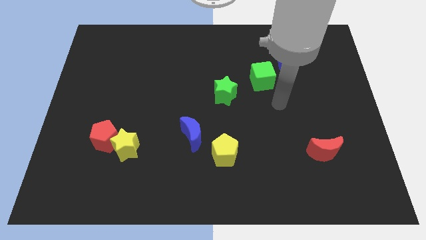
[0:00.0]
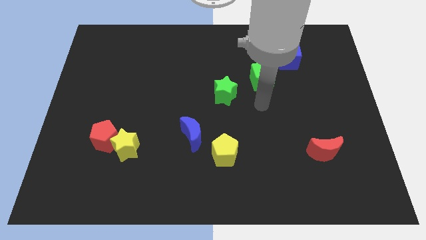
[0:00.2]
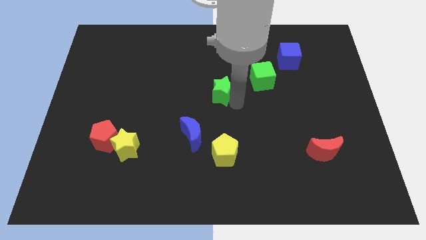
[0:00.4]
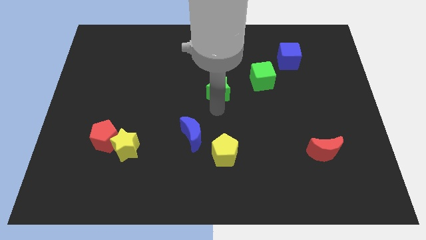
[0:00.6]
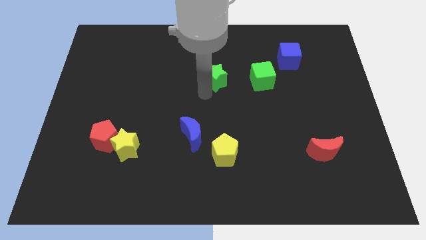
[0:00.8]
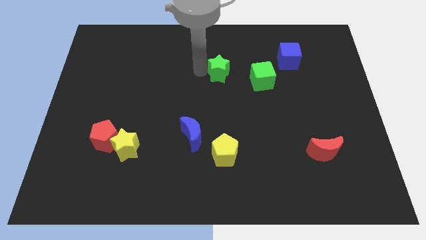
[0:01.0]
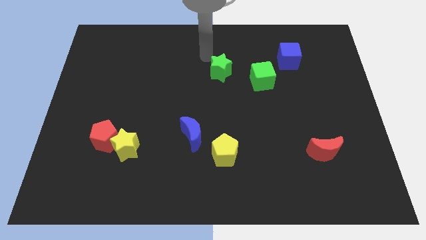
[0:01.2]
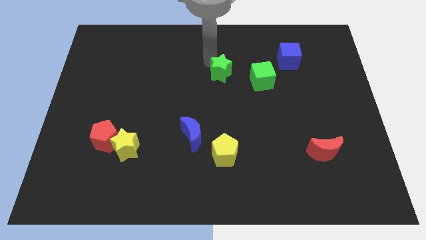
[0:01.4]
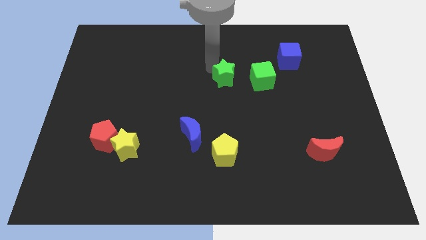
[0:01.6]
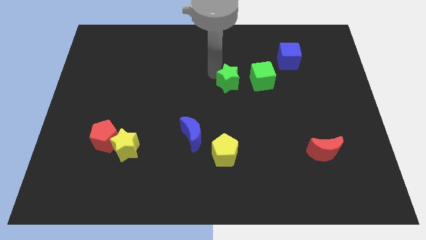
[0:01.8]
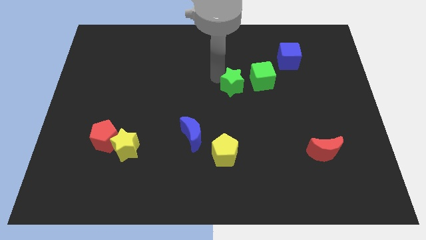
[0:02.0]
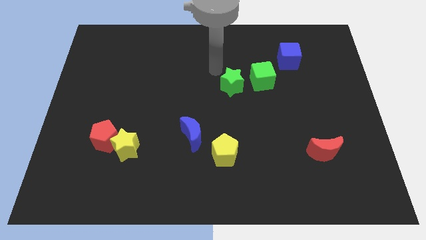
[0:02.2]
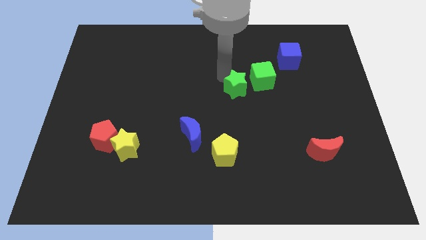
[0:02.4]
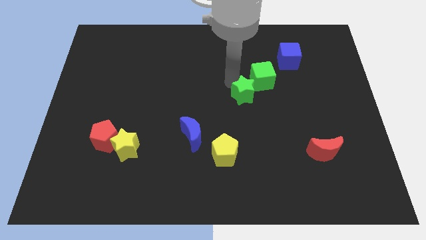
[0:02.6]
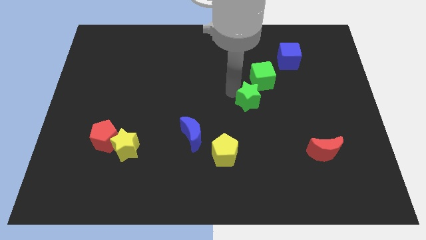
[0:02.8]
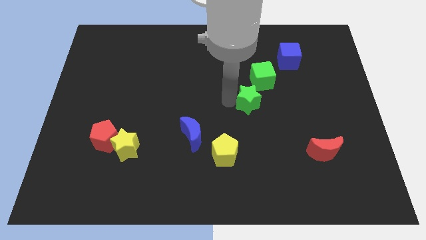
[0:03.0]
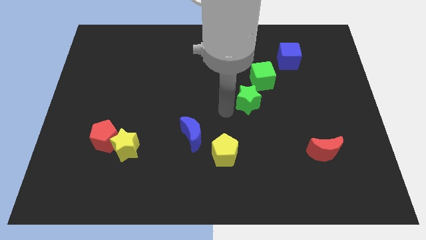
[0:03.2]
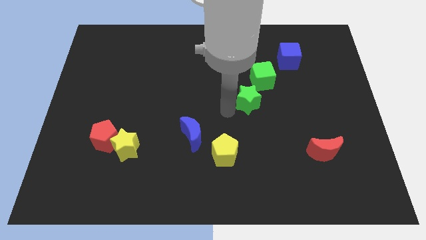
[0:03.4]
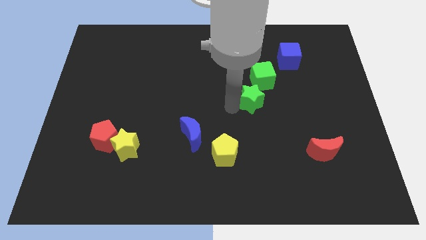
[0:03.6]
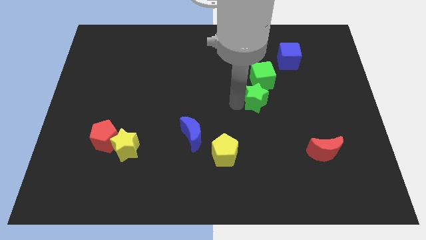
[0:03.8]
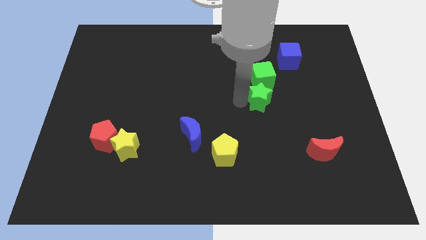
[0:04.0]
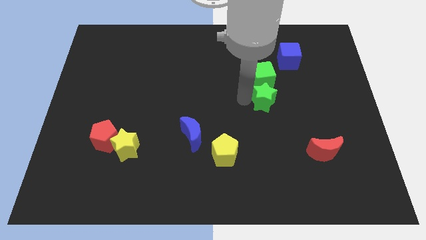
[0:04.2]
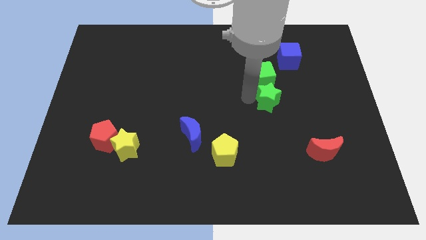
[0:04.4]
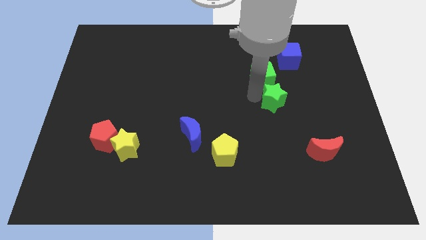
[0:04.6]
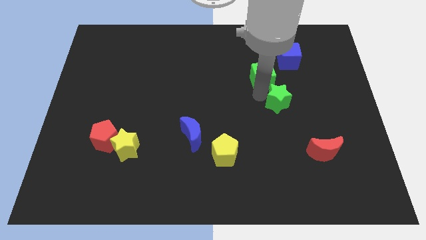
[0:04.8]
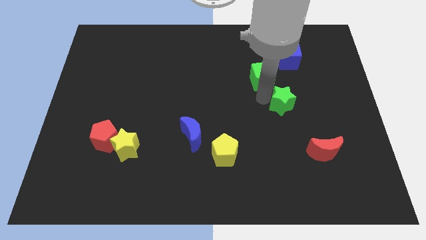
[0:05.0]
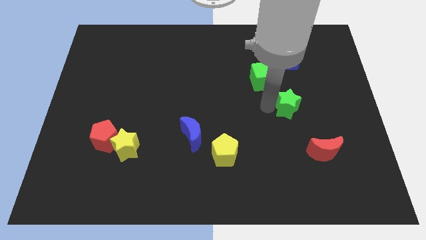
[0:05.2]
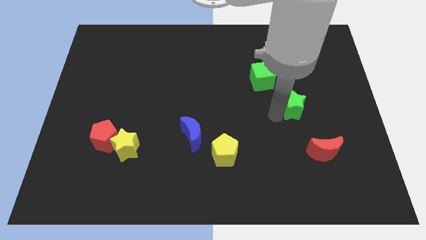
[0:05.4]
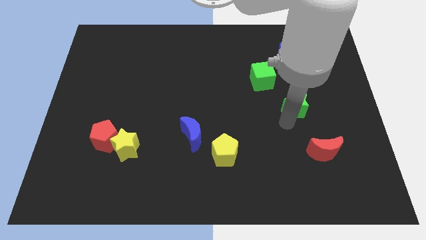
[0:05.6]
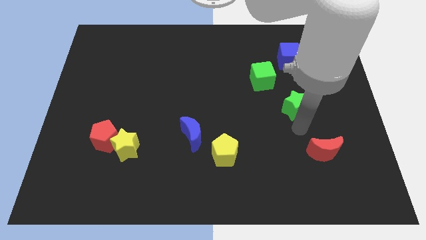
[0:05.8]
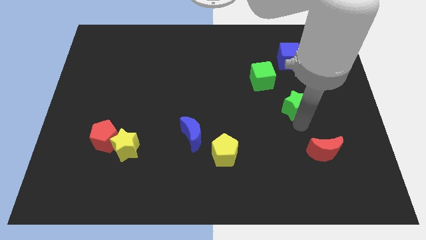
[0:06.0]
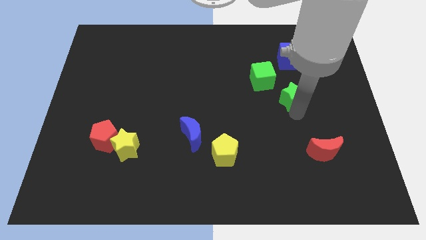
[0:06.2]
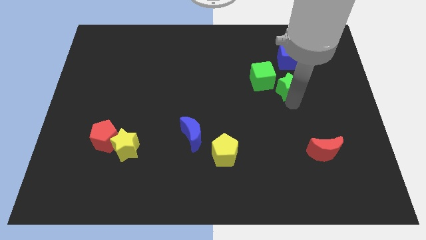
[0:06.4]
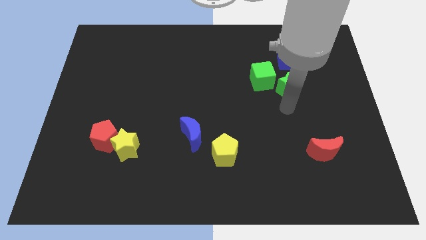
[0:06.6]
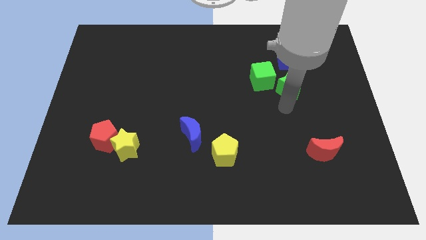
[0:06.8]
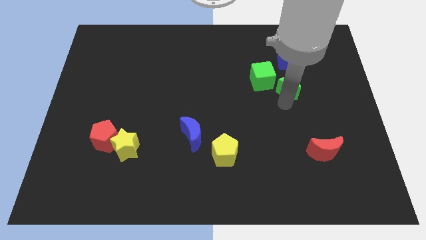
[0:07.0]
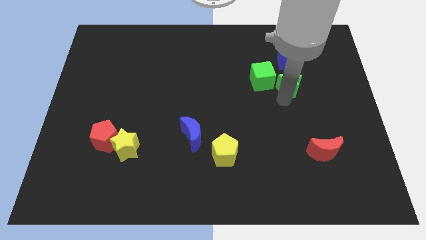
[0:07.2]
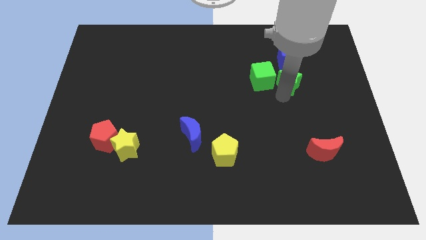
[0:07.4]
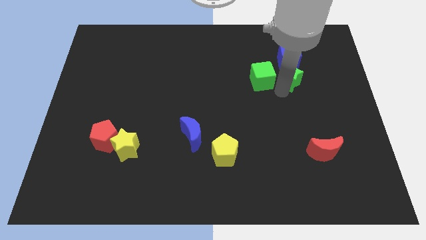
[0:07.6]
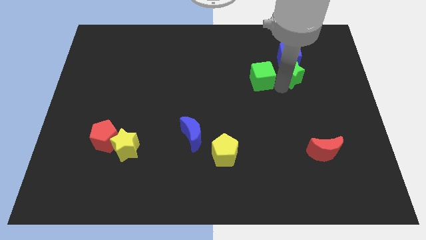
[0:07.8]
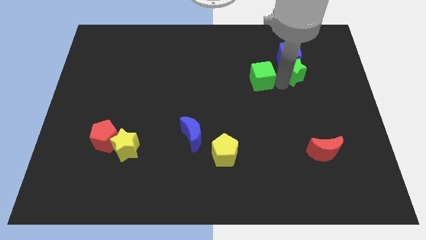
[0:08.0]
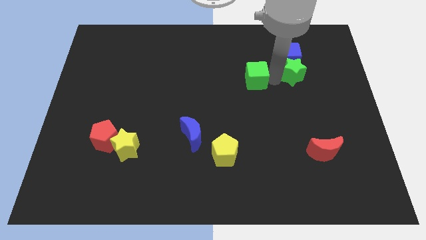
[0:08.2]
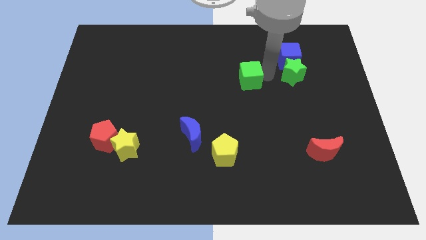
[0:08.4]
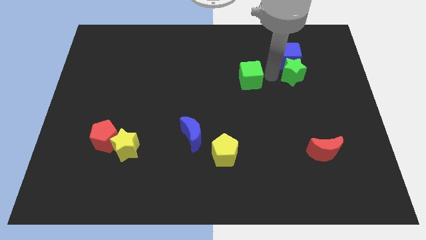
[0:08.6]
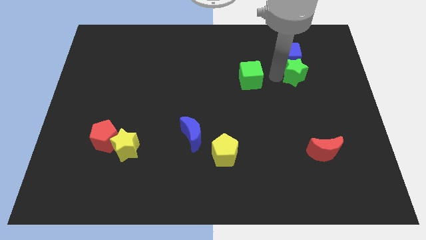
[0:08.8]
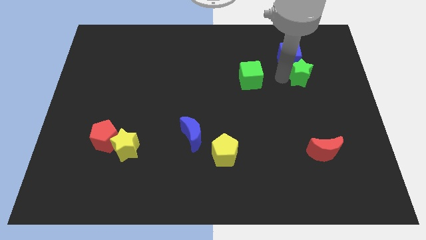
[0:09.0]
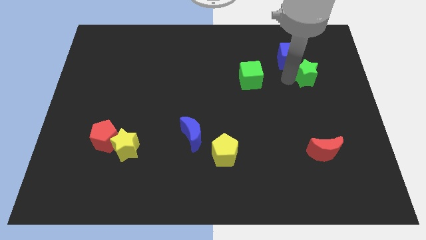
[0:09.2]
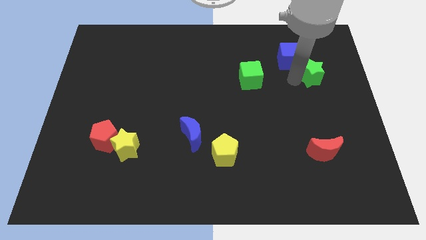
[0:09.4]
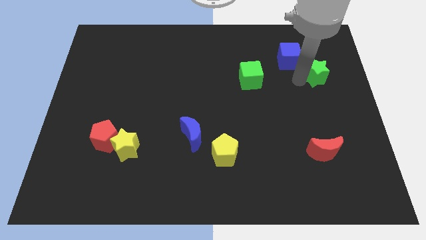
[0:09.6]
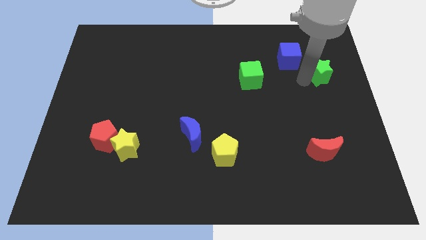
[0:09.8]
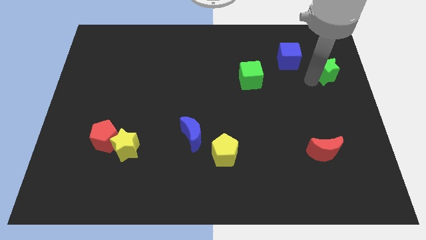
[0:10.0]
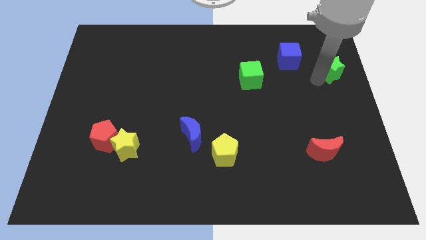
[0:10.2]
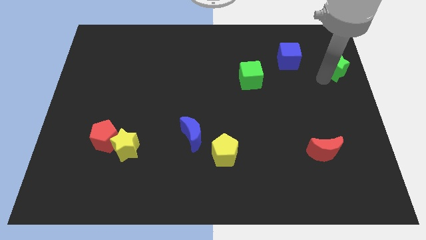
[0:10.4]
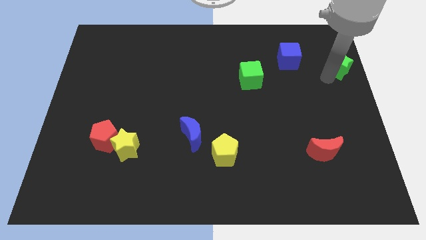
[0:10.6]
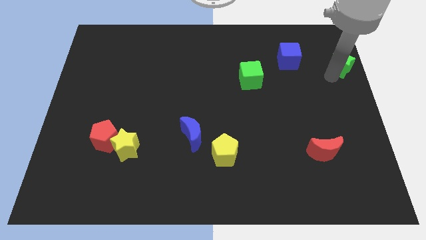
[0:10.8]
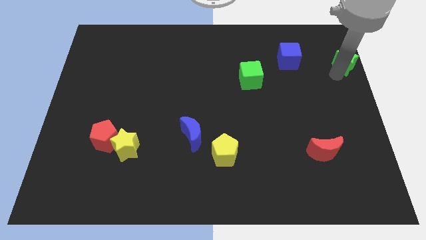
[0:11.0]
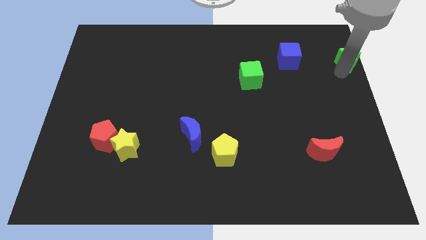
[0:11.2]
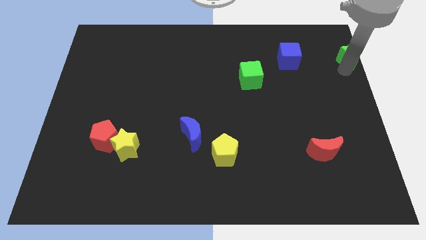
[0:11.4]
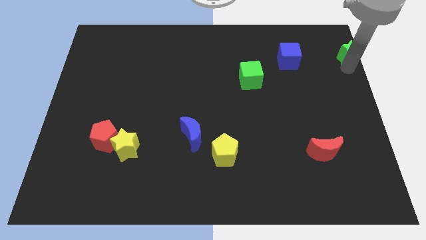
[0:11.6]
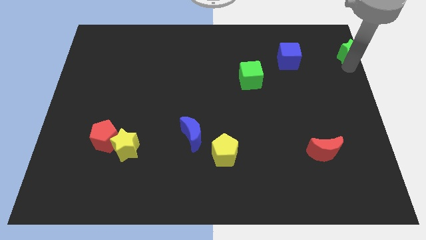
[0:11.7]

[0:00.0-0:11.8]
push the green star to the top right

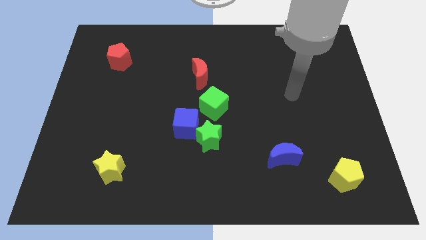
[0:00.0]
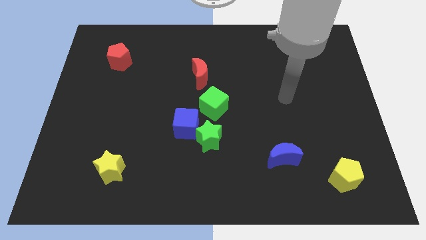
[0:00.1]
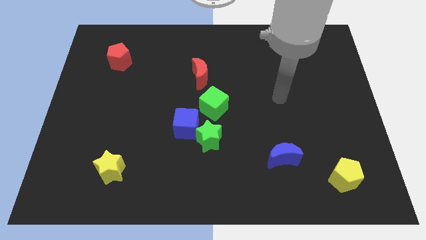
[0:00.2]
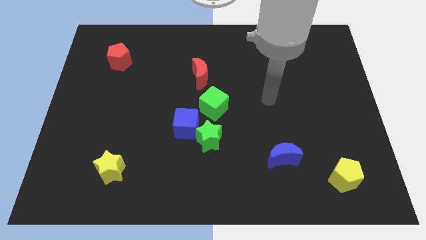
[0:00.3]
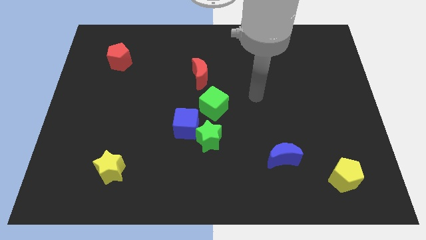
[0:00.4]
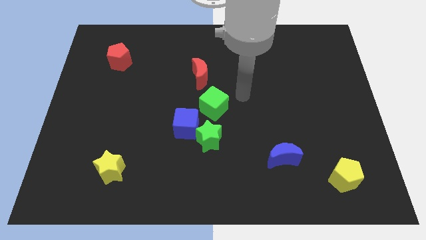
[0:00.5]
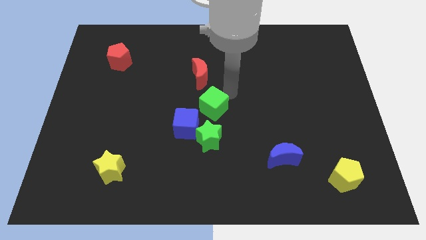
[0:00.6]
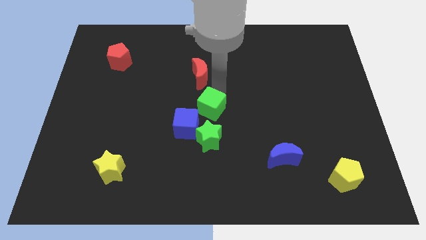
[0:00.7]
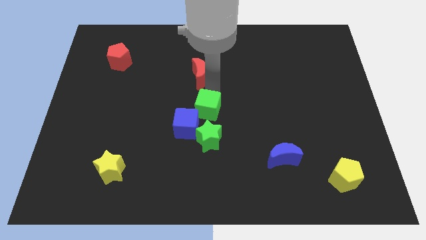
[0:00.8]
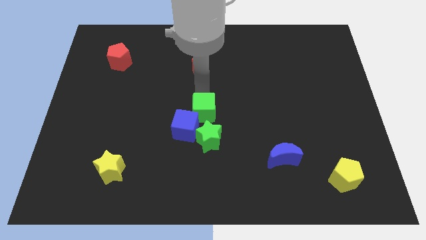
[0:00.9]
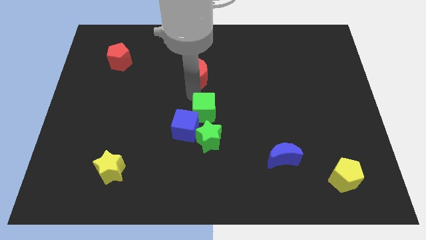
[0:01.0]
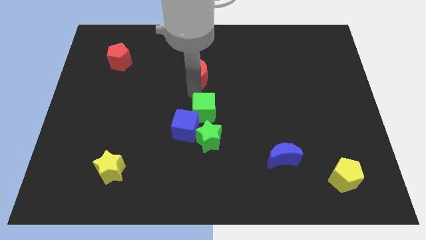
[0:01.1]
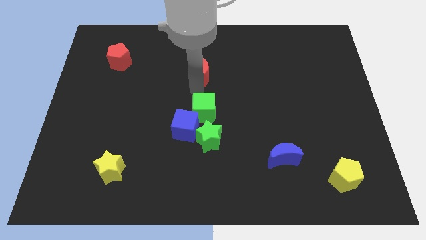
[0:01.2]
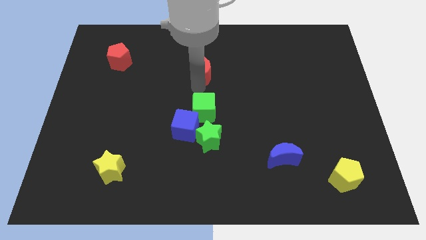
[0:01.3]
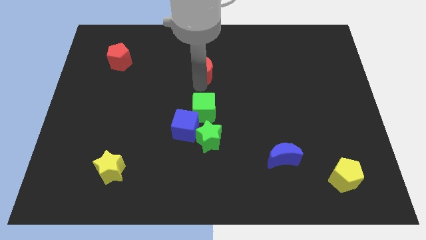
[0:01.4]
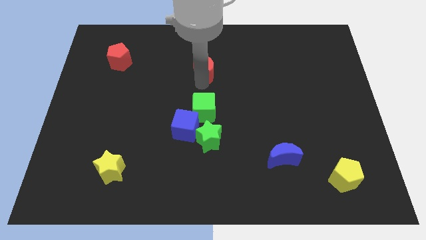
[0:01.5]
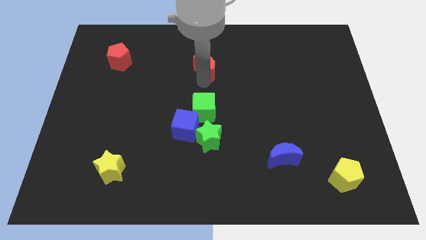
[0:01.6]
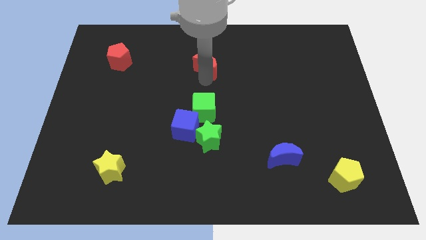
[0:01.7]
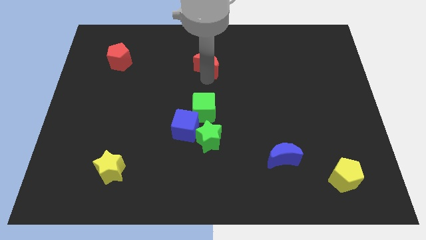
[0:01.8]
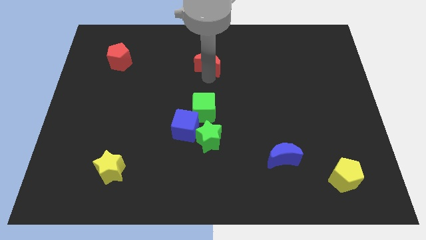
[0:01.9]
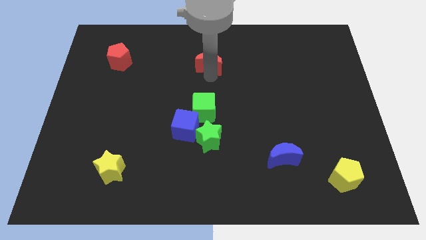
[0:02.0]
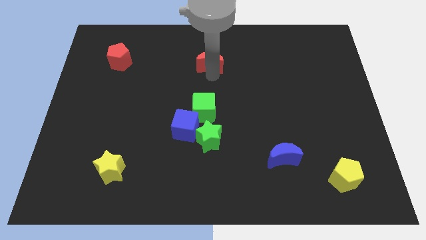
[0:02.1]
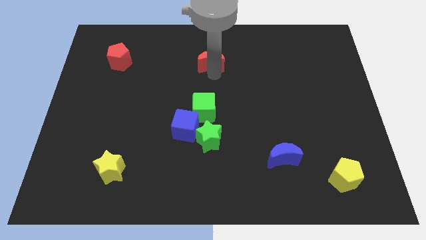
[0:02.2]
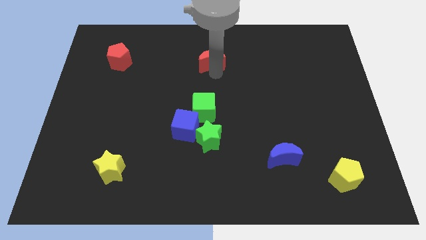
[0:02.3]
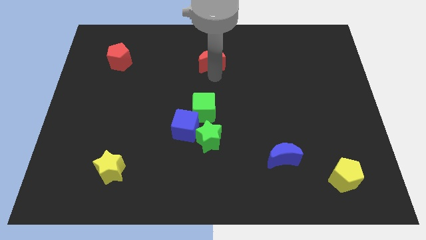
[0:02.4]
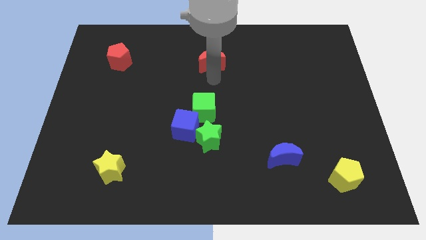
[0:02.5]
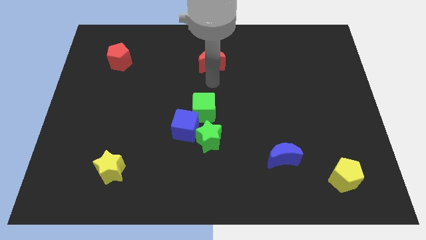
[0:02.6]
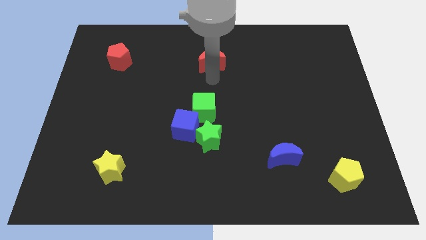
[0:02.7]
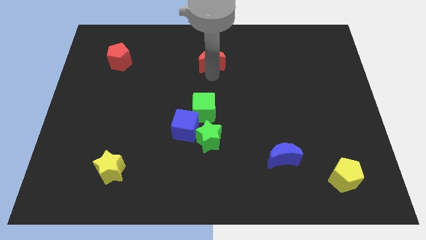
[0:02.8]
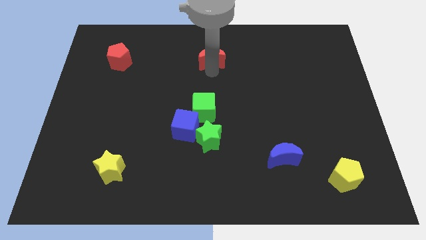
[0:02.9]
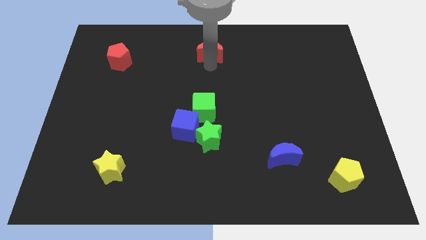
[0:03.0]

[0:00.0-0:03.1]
move the red moon to the top
